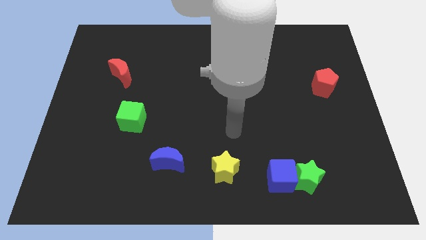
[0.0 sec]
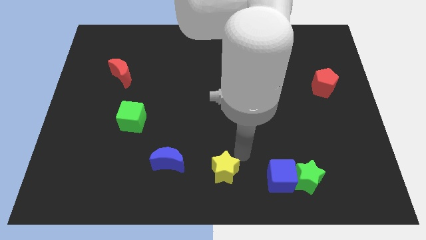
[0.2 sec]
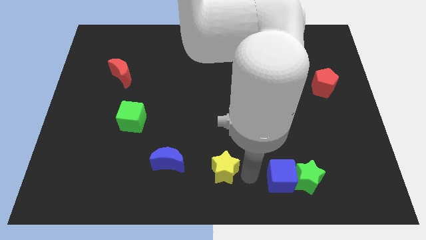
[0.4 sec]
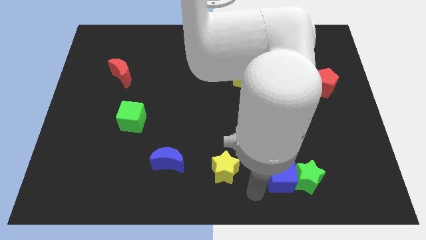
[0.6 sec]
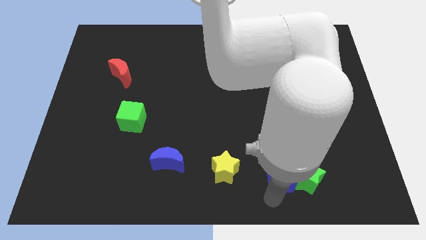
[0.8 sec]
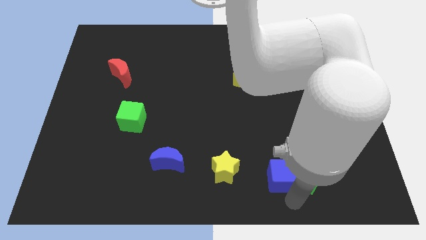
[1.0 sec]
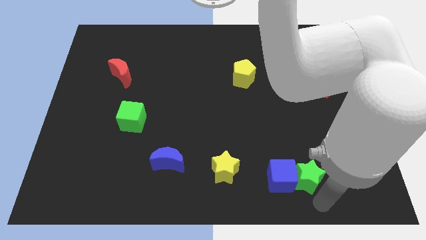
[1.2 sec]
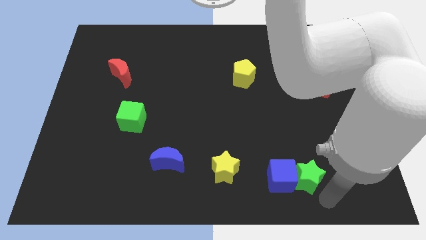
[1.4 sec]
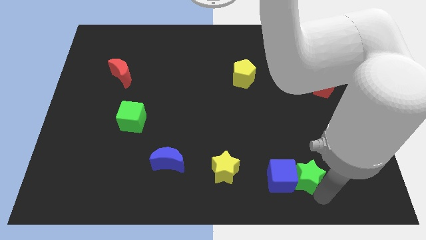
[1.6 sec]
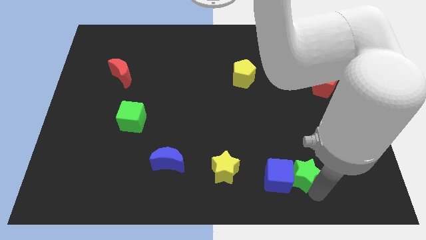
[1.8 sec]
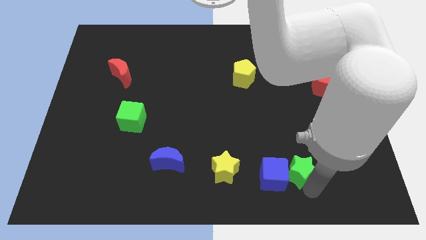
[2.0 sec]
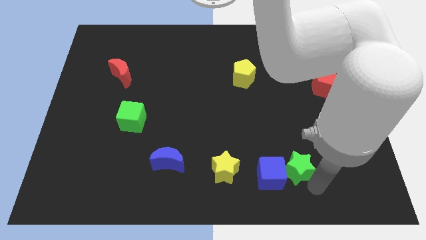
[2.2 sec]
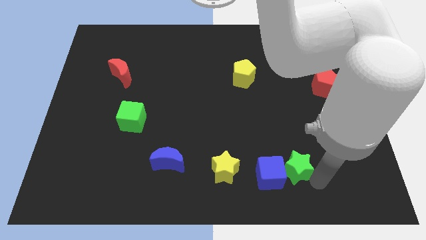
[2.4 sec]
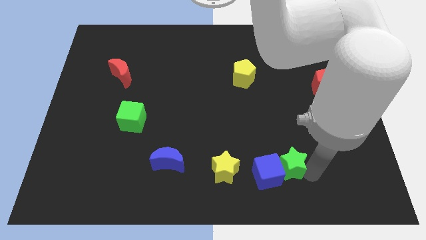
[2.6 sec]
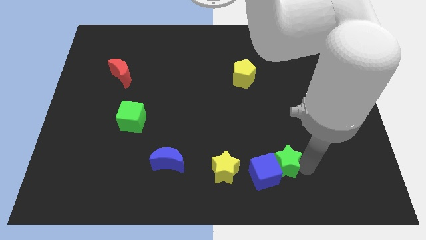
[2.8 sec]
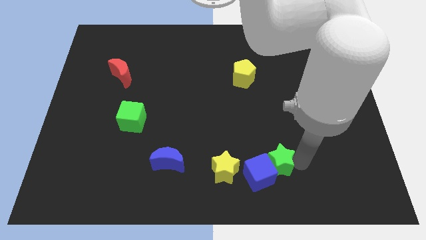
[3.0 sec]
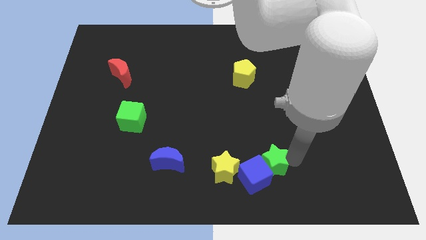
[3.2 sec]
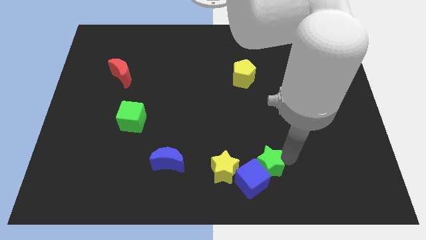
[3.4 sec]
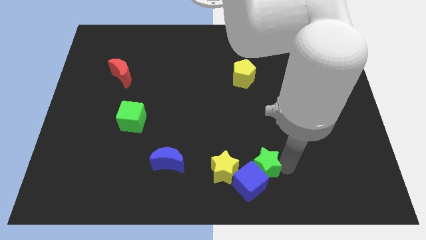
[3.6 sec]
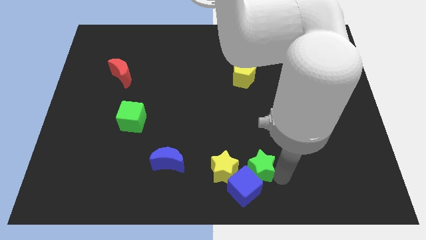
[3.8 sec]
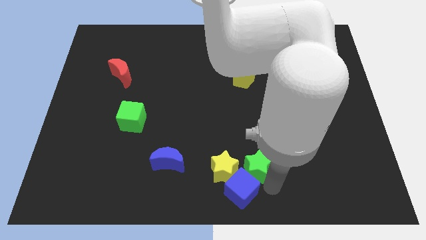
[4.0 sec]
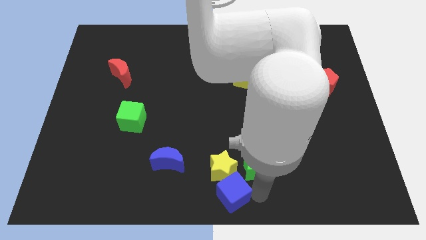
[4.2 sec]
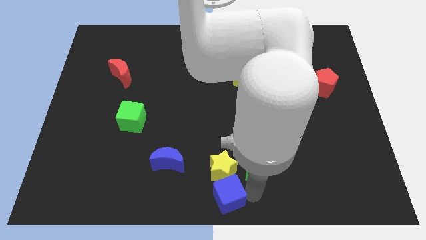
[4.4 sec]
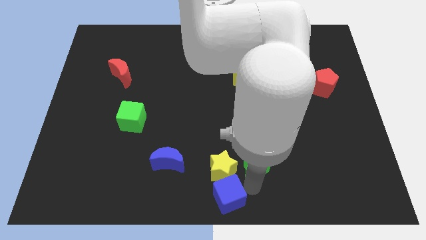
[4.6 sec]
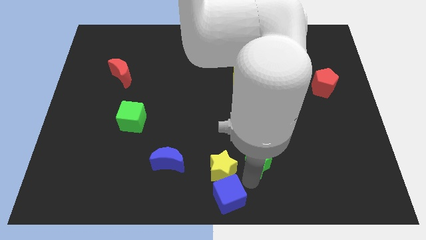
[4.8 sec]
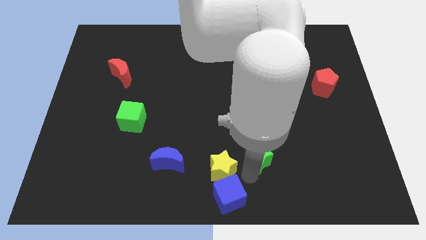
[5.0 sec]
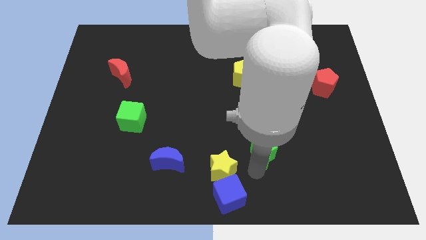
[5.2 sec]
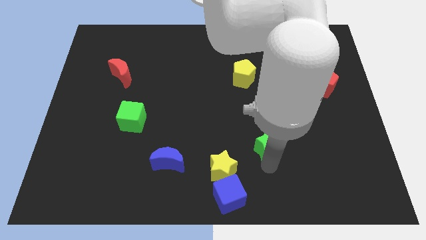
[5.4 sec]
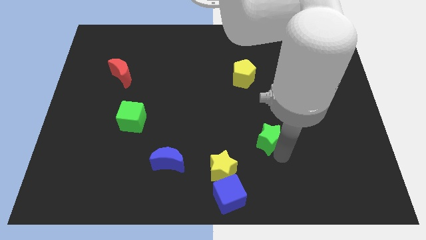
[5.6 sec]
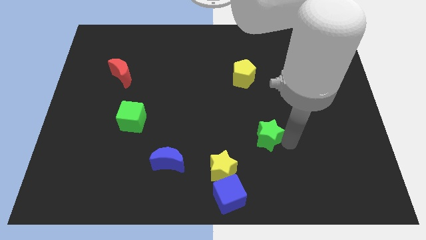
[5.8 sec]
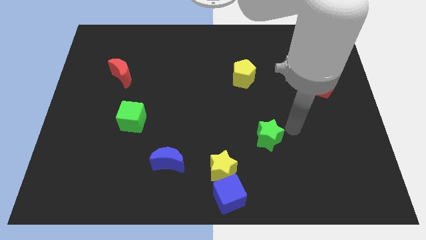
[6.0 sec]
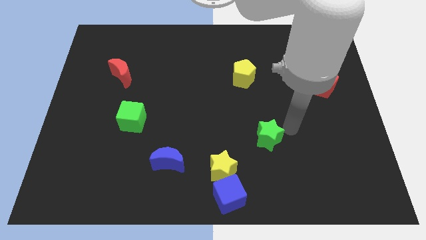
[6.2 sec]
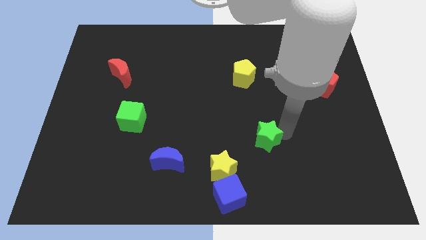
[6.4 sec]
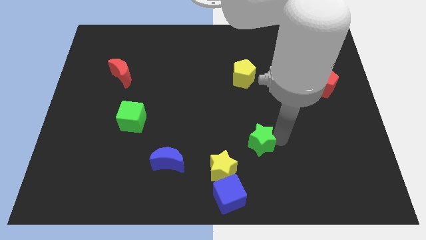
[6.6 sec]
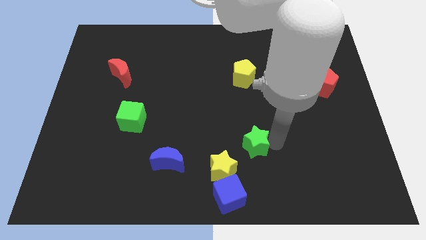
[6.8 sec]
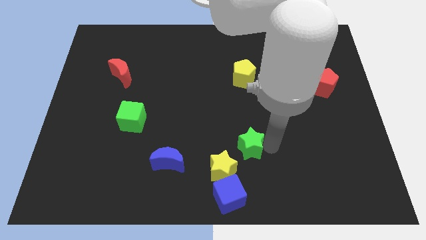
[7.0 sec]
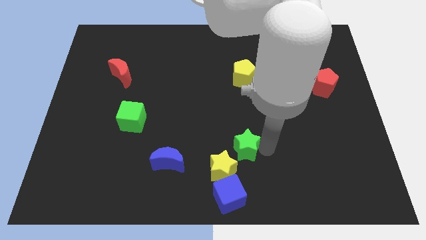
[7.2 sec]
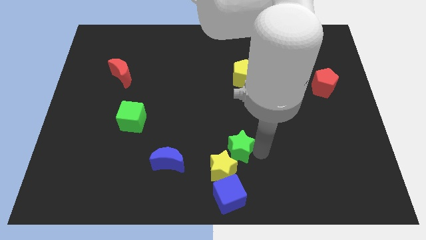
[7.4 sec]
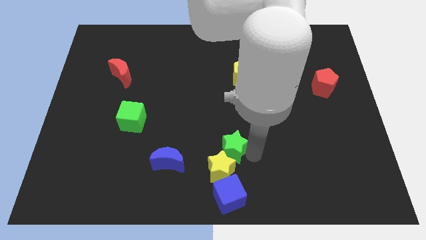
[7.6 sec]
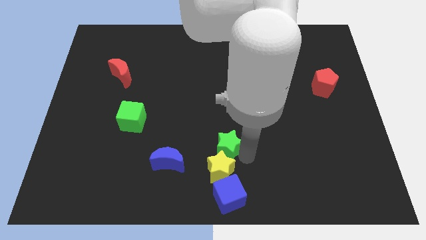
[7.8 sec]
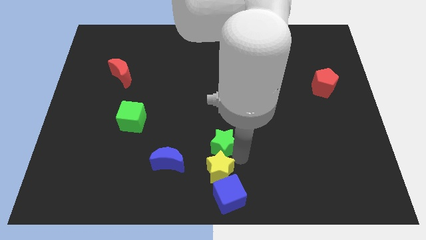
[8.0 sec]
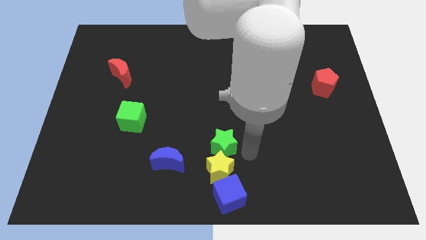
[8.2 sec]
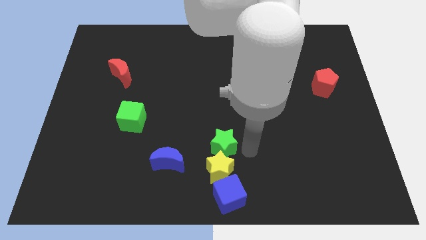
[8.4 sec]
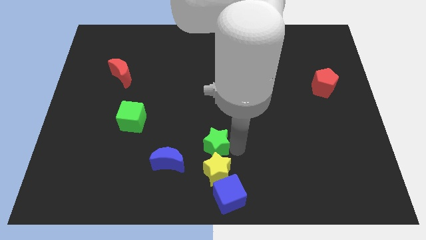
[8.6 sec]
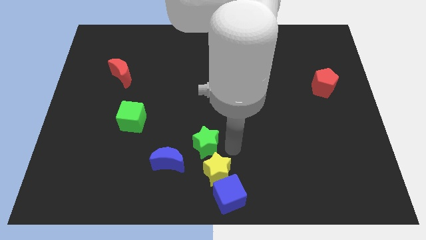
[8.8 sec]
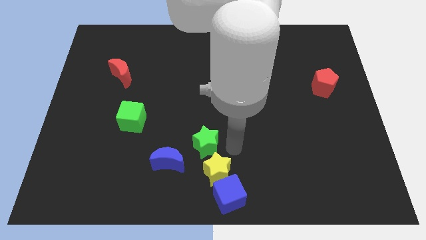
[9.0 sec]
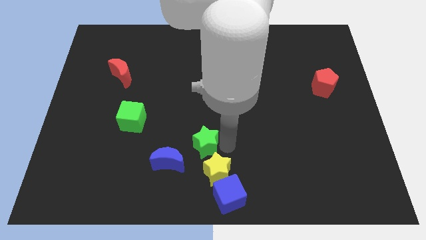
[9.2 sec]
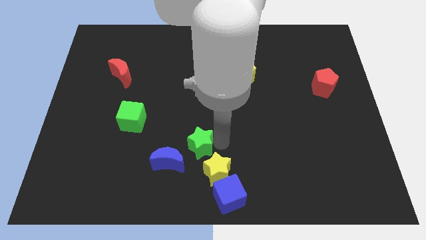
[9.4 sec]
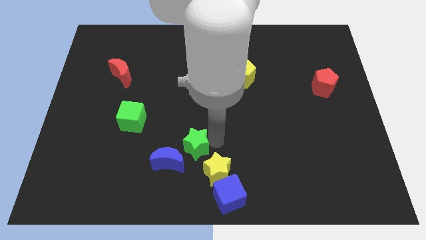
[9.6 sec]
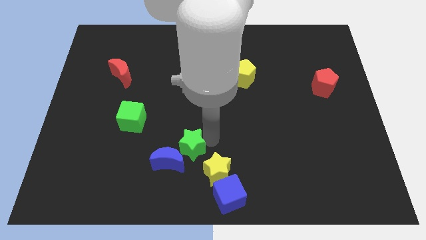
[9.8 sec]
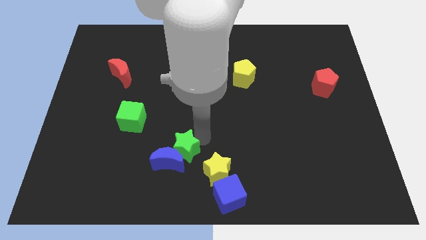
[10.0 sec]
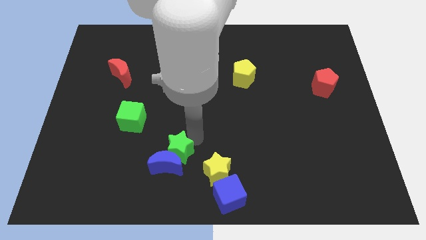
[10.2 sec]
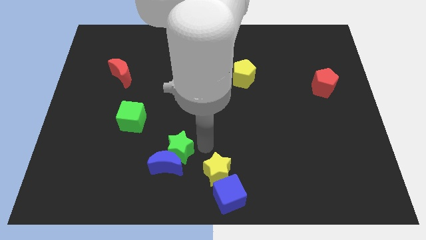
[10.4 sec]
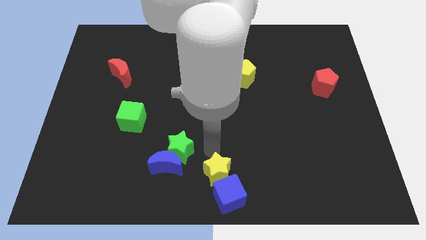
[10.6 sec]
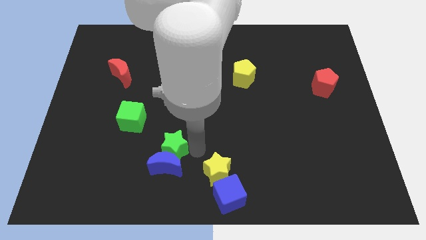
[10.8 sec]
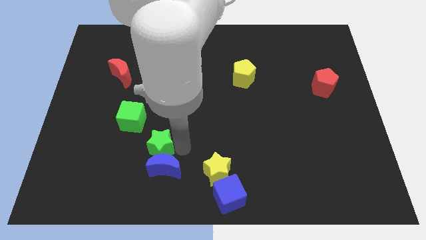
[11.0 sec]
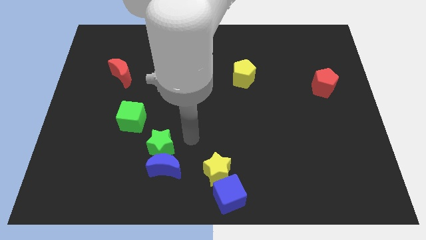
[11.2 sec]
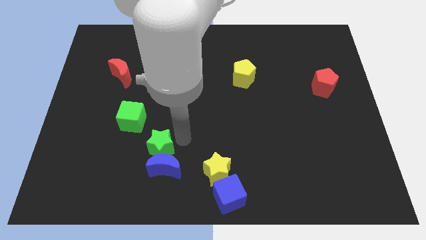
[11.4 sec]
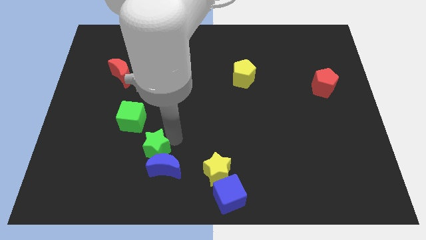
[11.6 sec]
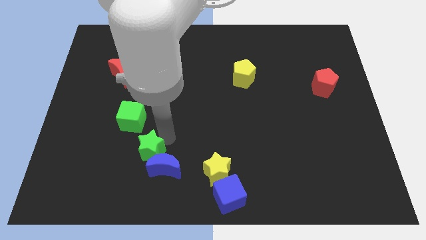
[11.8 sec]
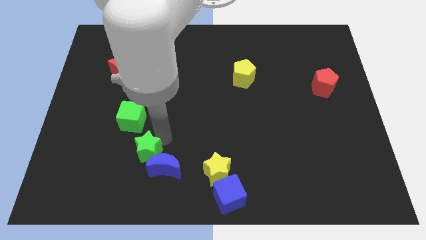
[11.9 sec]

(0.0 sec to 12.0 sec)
move the green star to the bottom of the green cube

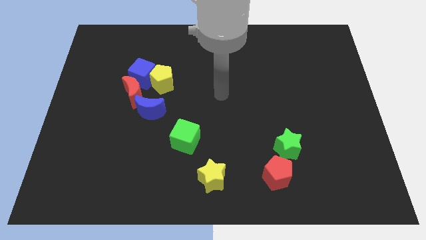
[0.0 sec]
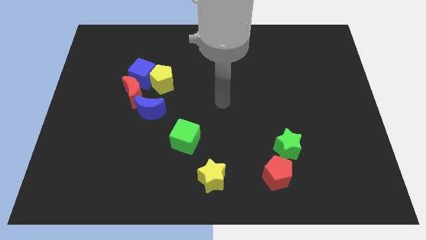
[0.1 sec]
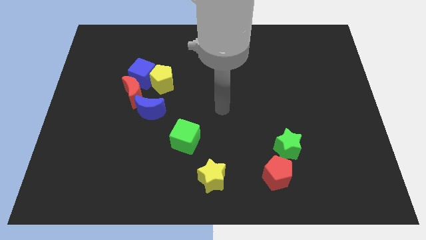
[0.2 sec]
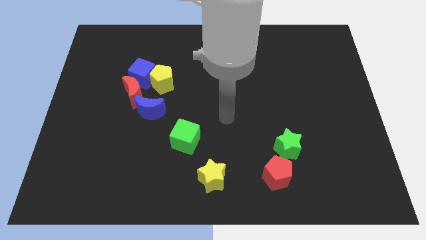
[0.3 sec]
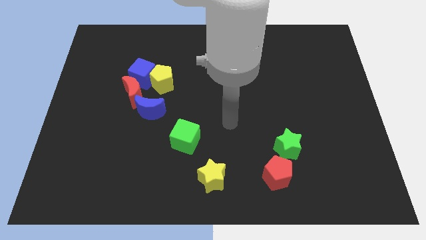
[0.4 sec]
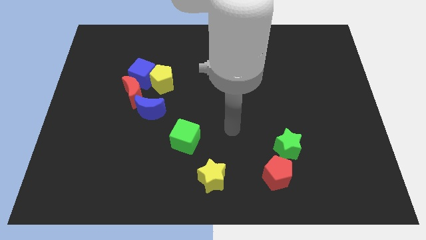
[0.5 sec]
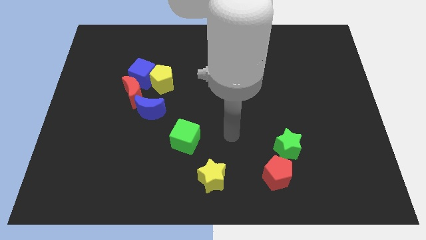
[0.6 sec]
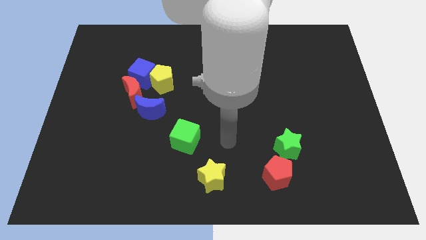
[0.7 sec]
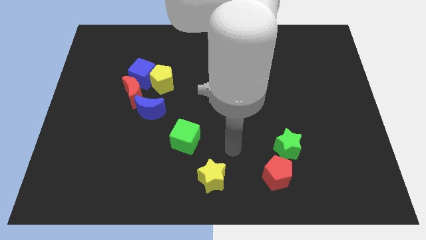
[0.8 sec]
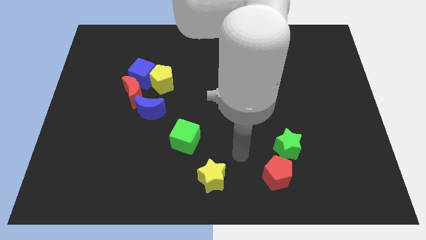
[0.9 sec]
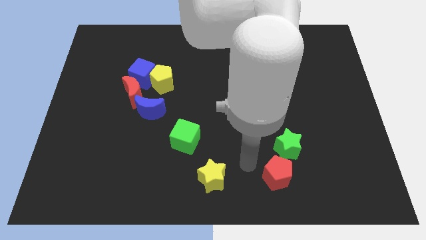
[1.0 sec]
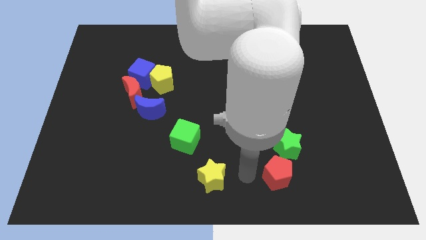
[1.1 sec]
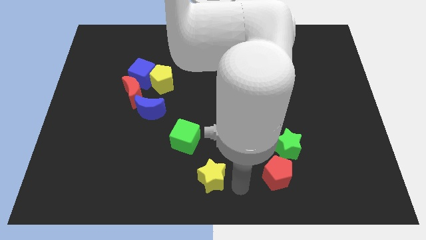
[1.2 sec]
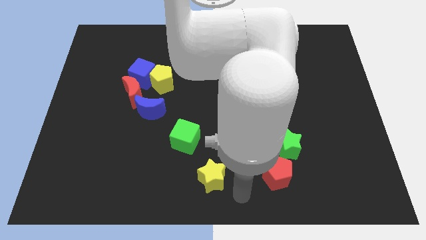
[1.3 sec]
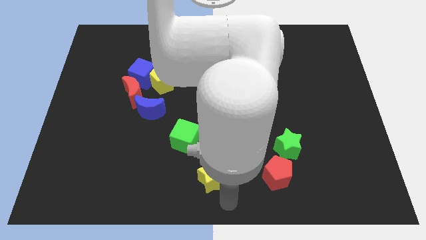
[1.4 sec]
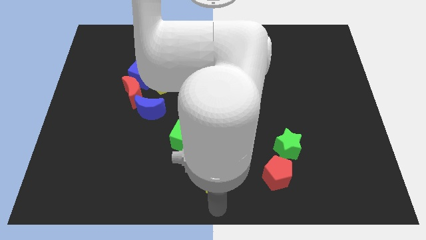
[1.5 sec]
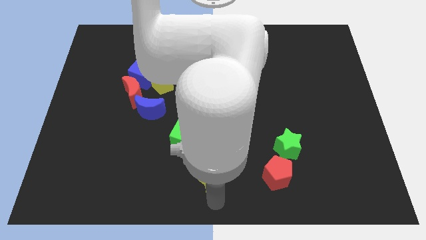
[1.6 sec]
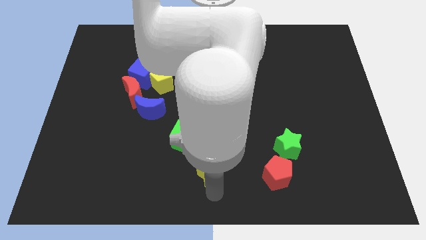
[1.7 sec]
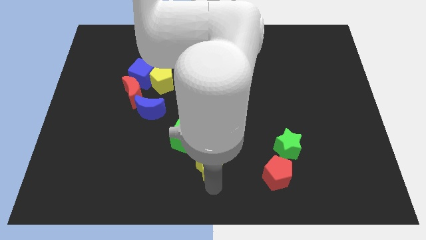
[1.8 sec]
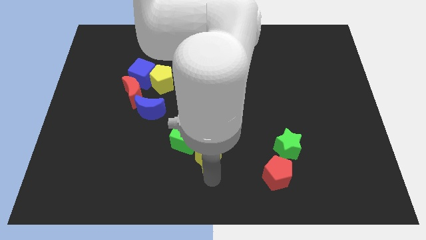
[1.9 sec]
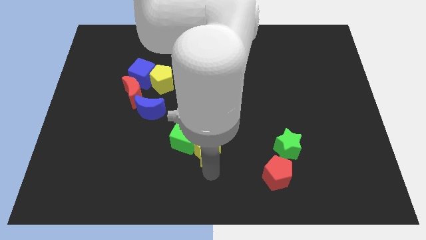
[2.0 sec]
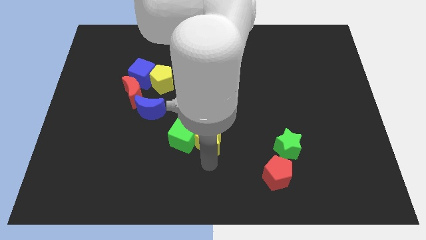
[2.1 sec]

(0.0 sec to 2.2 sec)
put the yellow star to the top right side of the green cube
